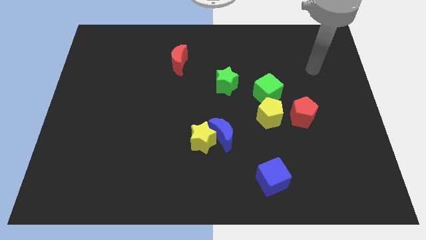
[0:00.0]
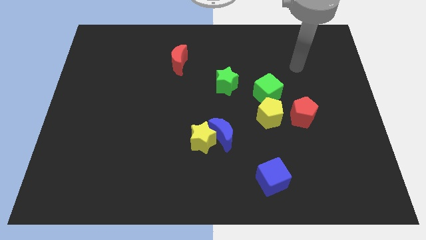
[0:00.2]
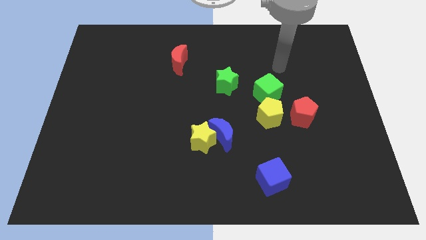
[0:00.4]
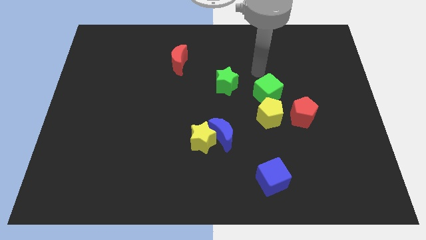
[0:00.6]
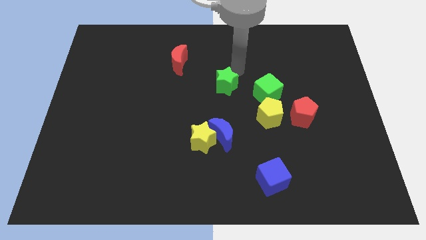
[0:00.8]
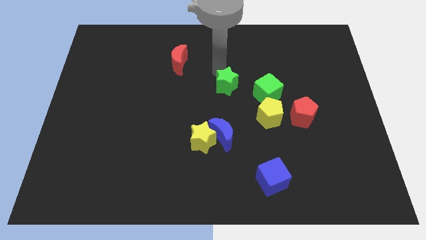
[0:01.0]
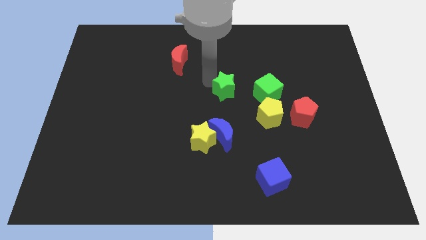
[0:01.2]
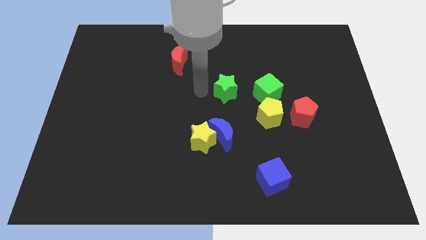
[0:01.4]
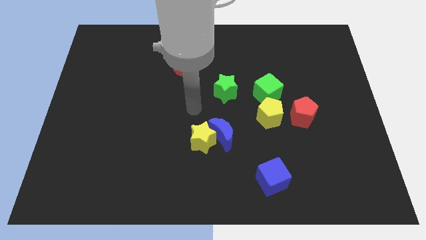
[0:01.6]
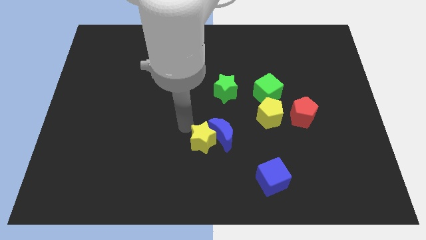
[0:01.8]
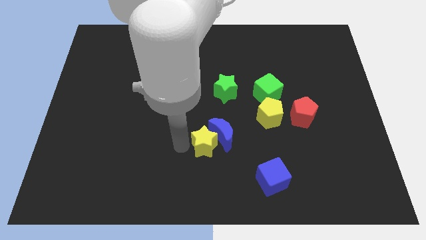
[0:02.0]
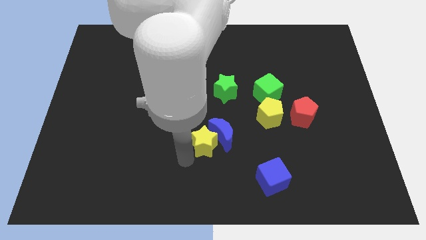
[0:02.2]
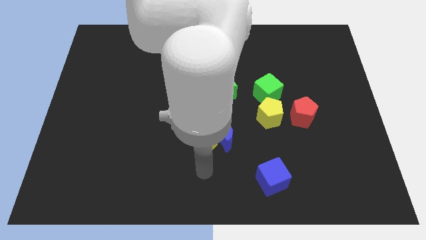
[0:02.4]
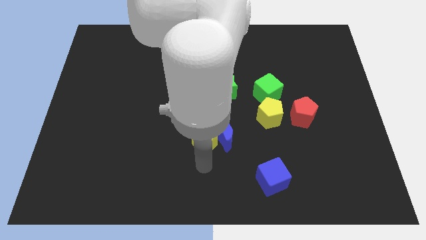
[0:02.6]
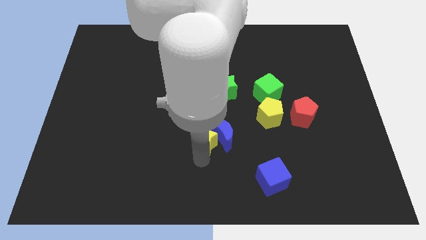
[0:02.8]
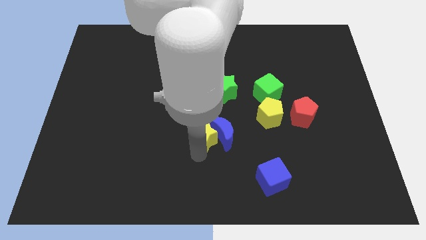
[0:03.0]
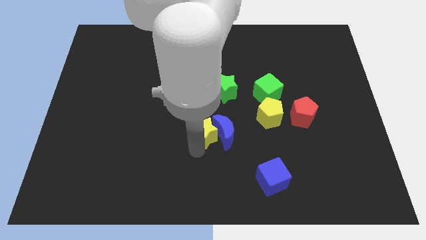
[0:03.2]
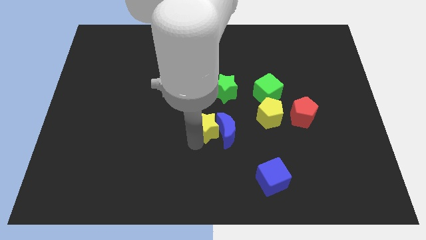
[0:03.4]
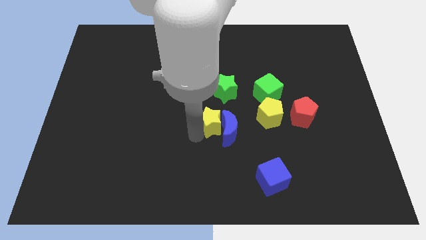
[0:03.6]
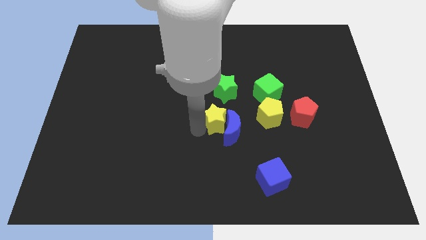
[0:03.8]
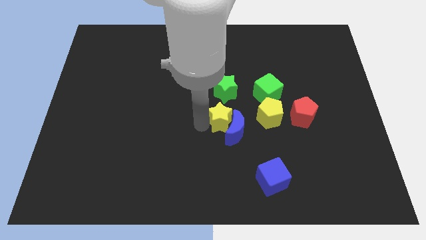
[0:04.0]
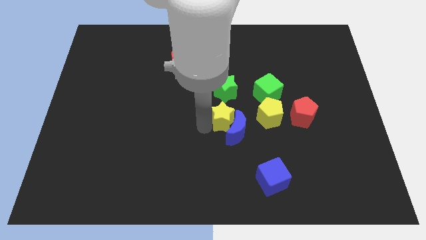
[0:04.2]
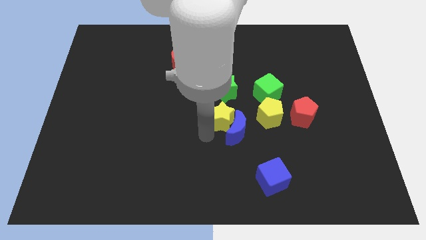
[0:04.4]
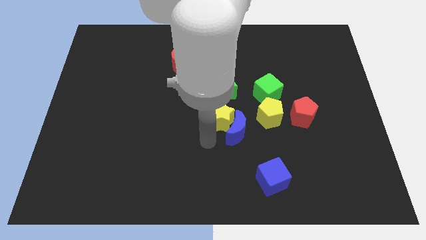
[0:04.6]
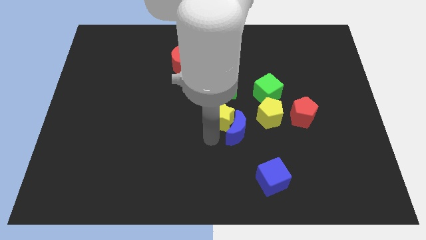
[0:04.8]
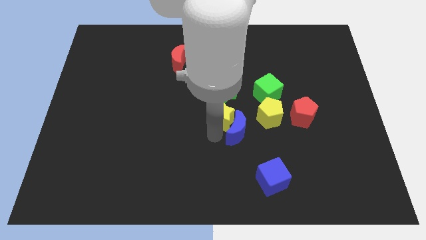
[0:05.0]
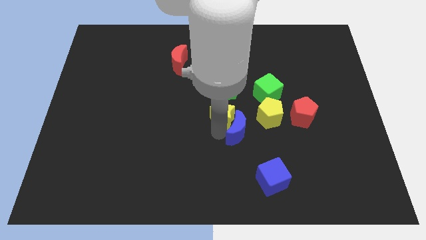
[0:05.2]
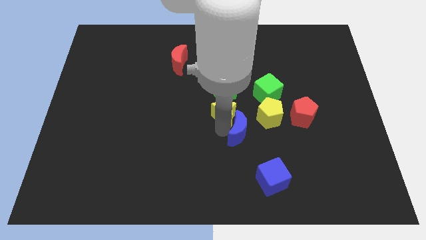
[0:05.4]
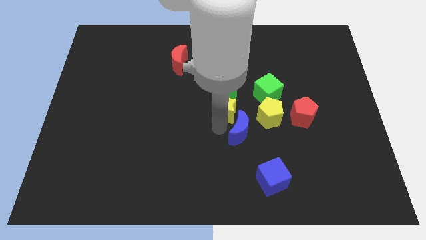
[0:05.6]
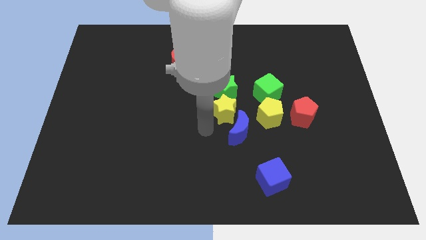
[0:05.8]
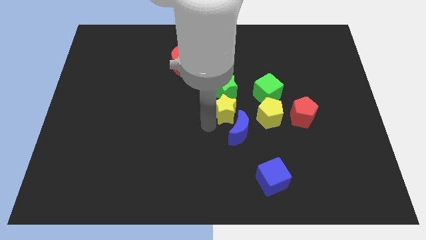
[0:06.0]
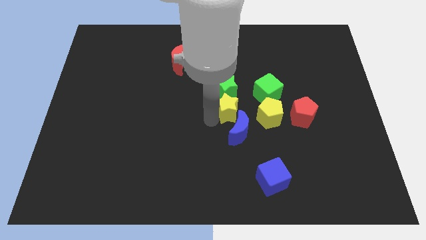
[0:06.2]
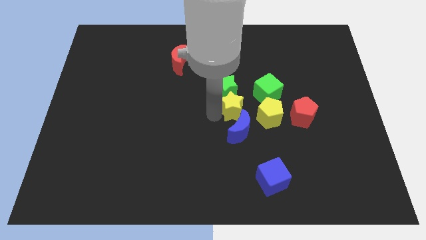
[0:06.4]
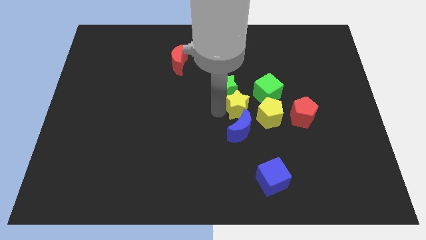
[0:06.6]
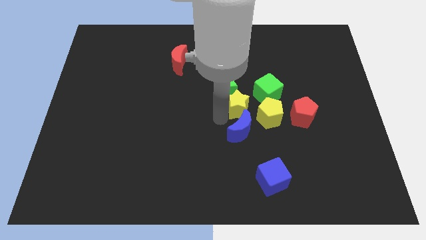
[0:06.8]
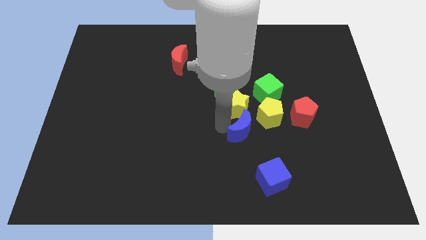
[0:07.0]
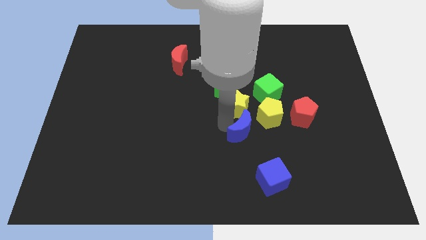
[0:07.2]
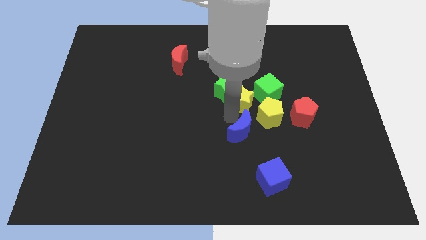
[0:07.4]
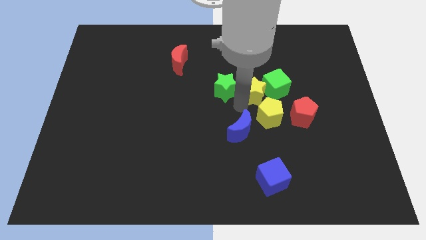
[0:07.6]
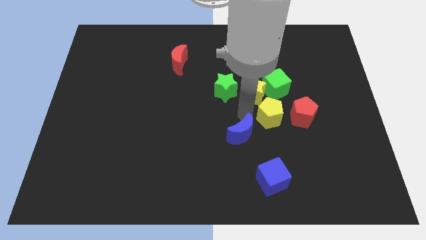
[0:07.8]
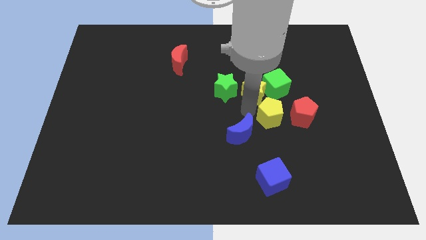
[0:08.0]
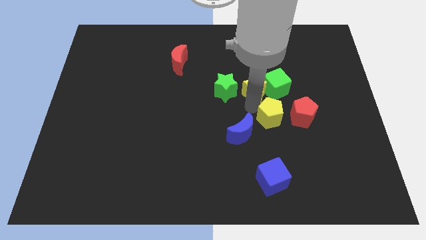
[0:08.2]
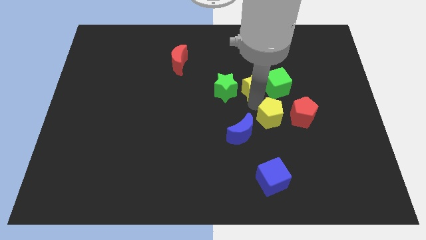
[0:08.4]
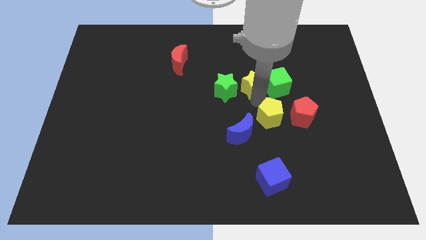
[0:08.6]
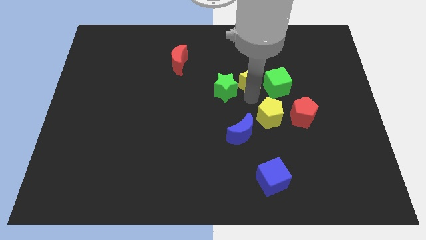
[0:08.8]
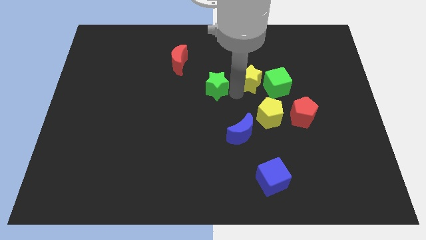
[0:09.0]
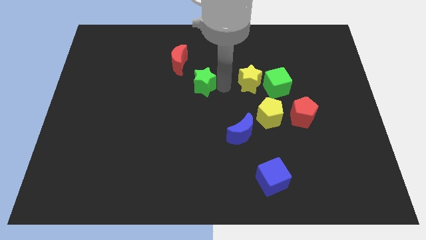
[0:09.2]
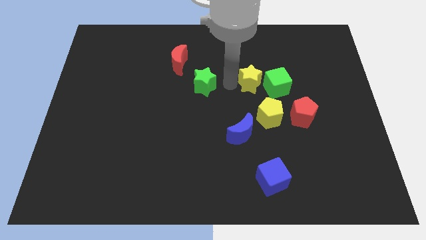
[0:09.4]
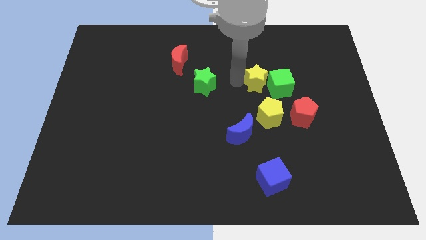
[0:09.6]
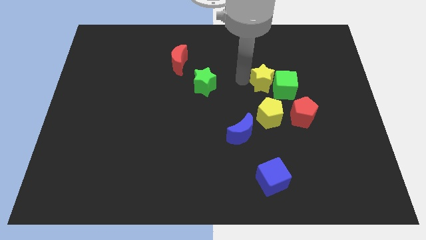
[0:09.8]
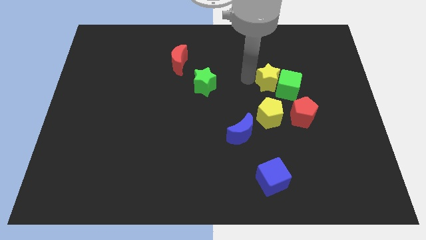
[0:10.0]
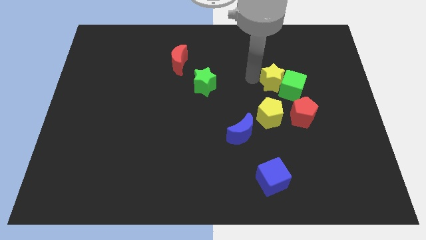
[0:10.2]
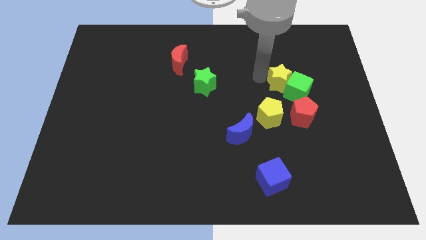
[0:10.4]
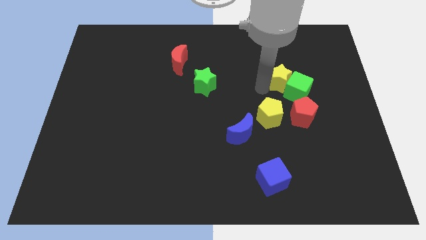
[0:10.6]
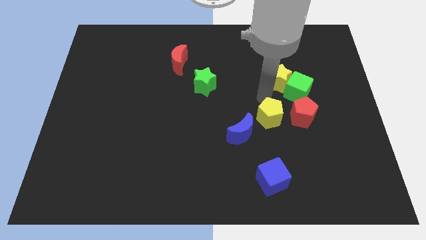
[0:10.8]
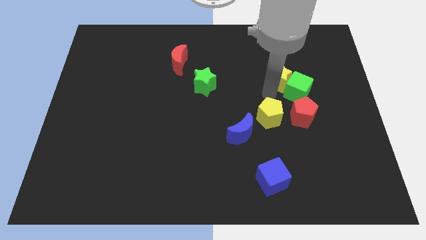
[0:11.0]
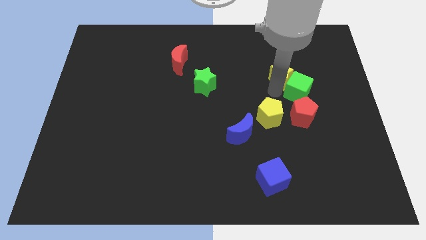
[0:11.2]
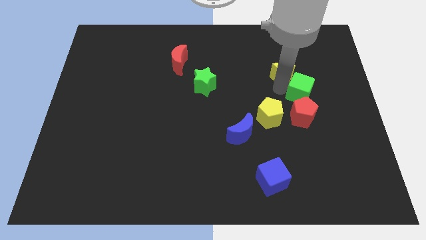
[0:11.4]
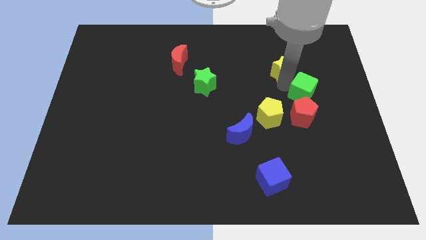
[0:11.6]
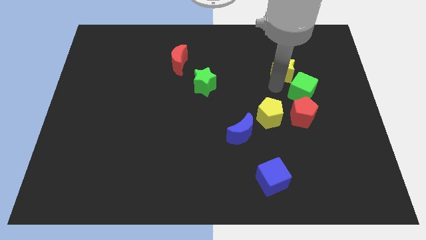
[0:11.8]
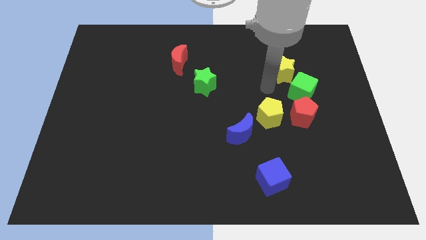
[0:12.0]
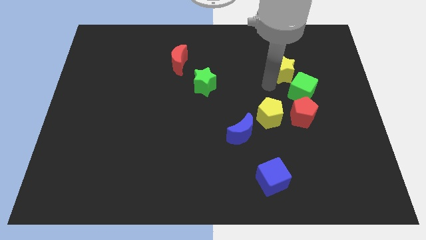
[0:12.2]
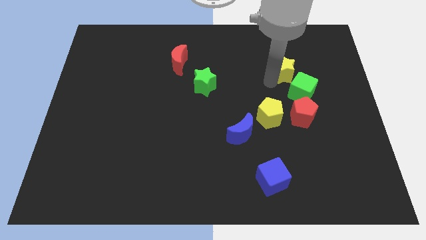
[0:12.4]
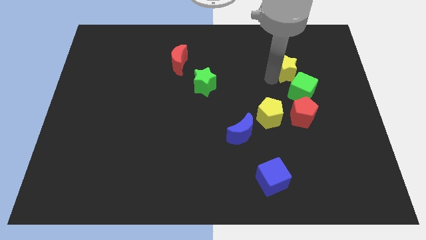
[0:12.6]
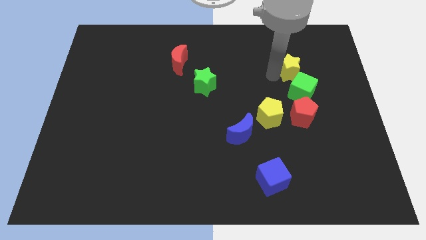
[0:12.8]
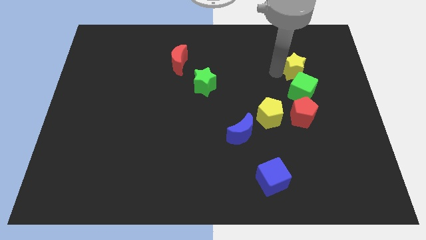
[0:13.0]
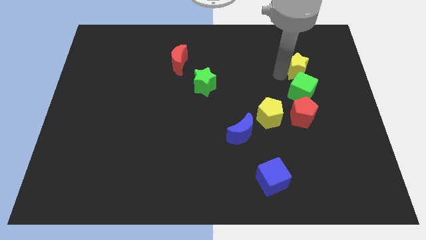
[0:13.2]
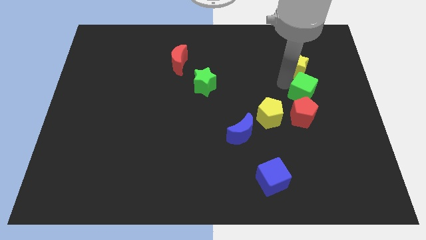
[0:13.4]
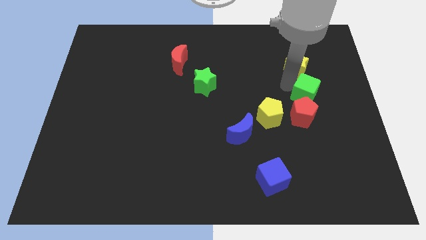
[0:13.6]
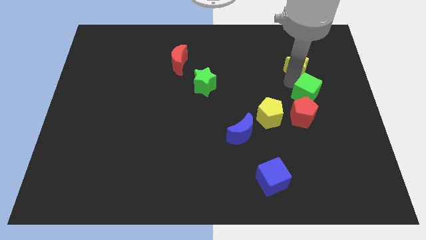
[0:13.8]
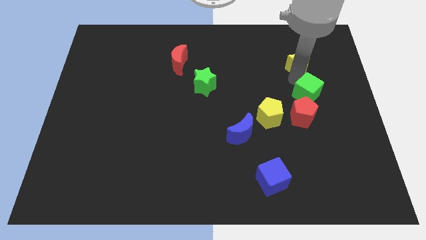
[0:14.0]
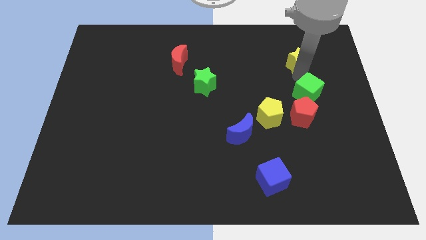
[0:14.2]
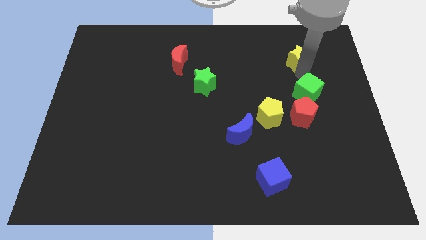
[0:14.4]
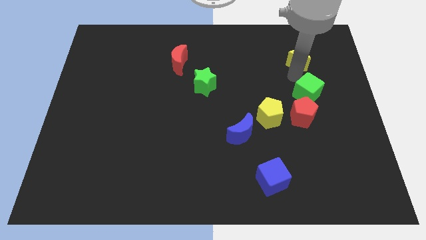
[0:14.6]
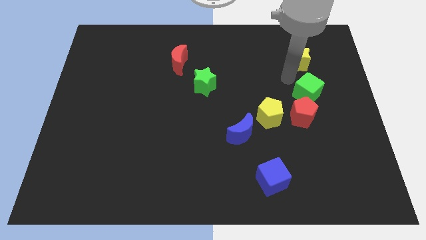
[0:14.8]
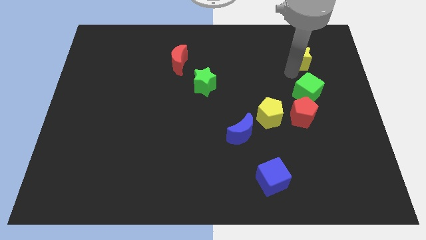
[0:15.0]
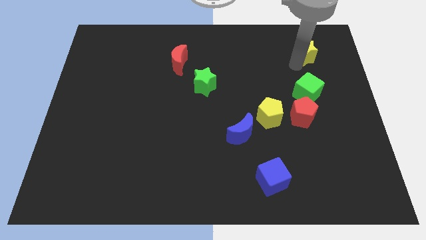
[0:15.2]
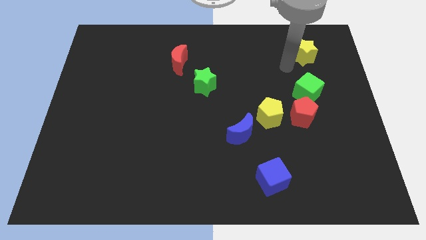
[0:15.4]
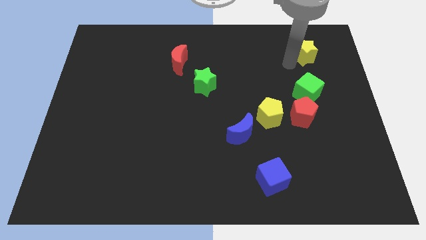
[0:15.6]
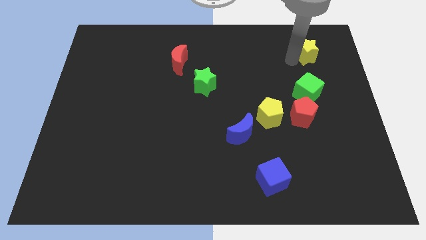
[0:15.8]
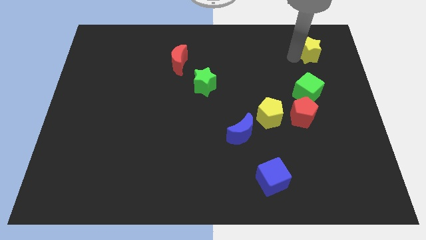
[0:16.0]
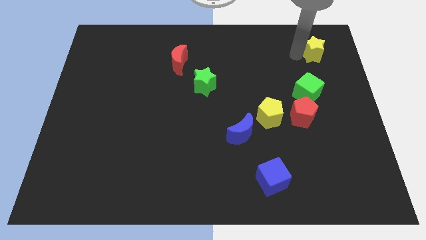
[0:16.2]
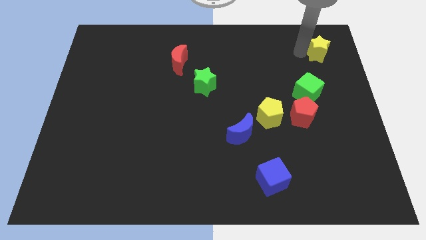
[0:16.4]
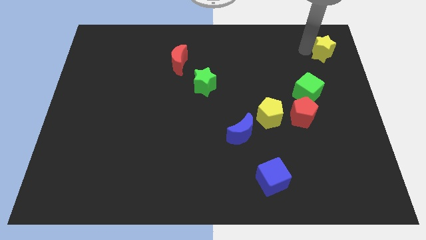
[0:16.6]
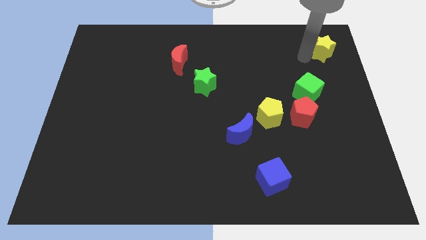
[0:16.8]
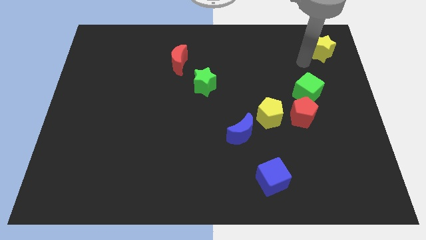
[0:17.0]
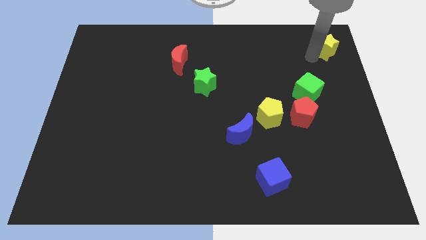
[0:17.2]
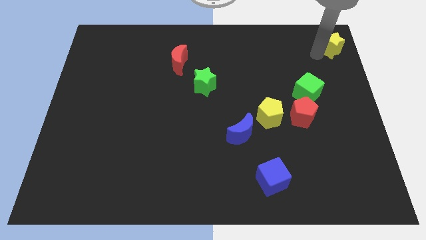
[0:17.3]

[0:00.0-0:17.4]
push the yellow star to the top right of the board
